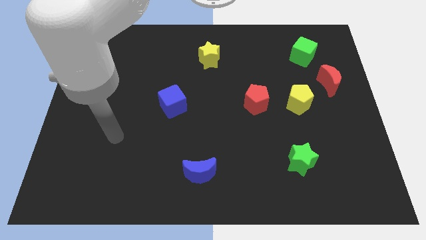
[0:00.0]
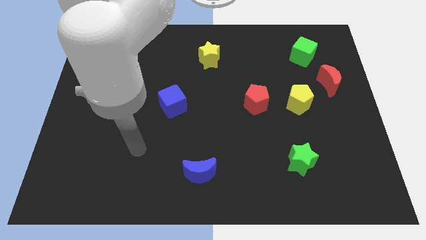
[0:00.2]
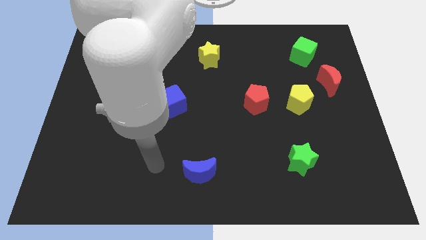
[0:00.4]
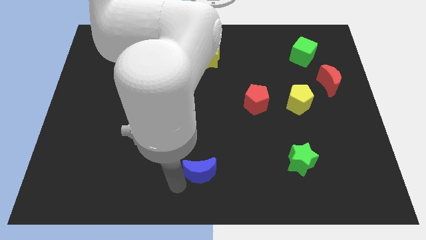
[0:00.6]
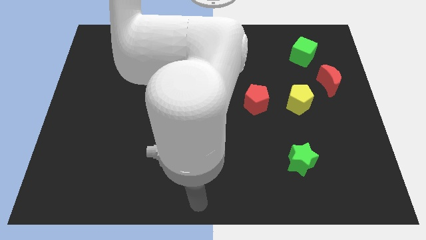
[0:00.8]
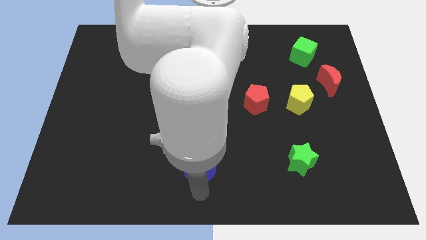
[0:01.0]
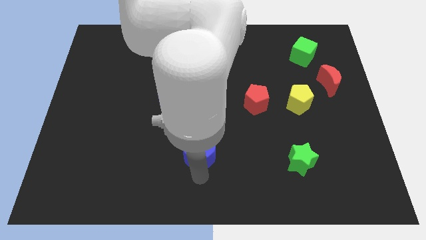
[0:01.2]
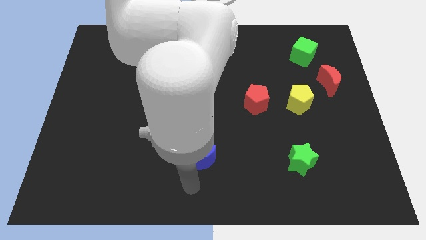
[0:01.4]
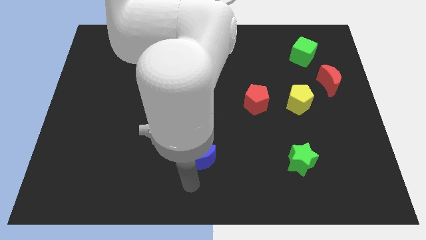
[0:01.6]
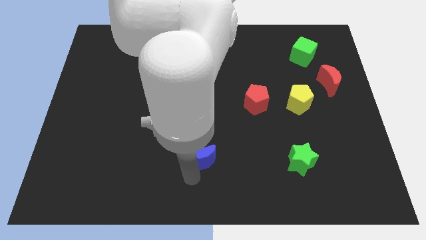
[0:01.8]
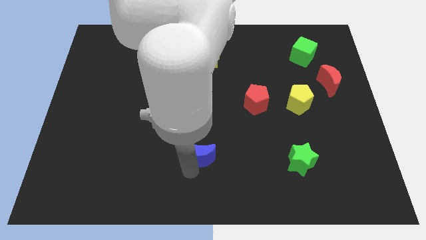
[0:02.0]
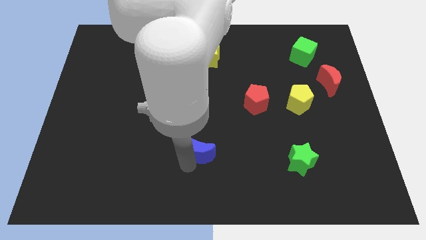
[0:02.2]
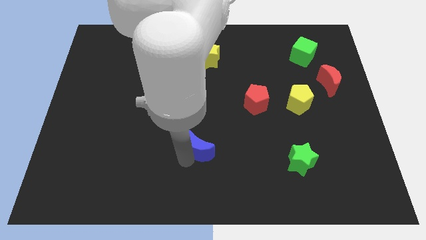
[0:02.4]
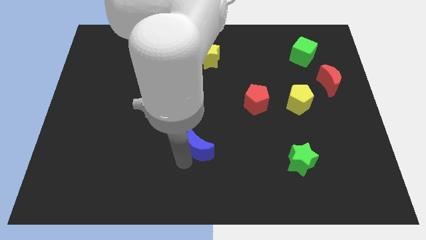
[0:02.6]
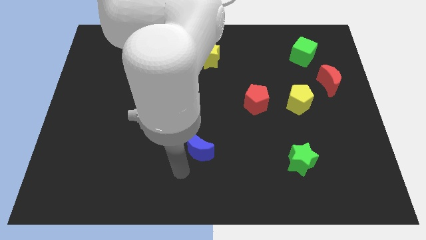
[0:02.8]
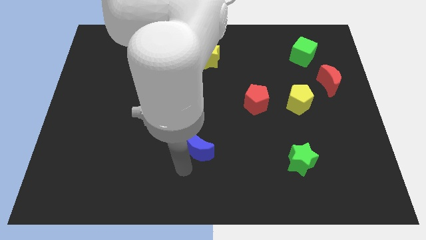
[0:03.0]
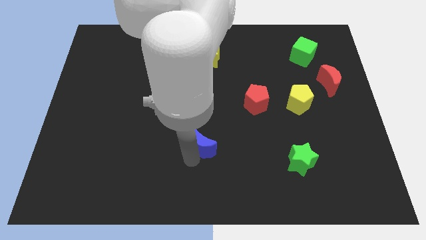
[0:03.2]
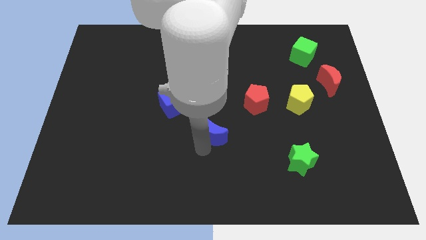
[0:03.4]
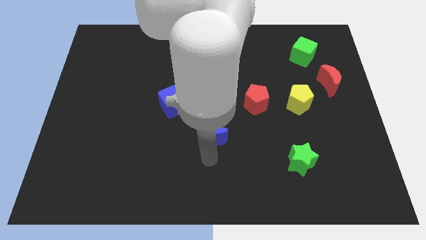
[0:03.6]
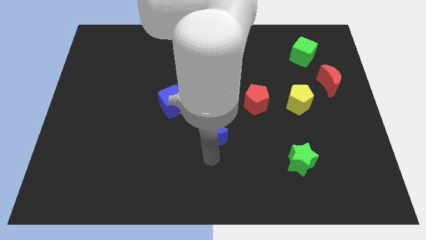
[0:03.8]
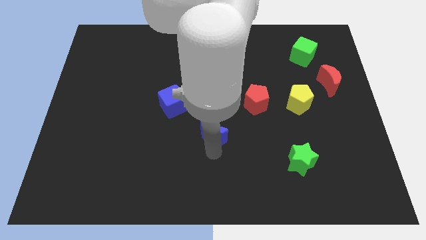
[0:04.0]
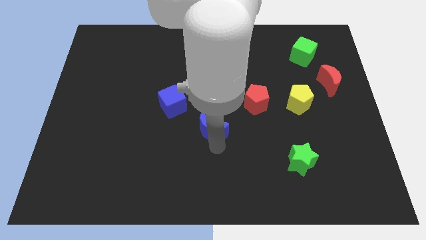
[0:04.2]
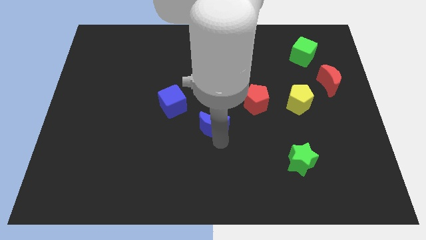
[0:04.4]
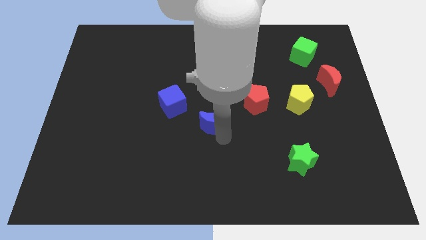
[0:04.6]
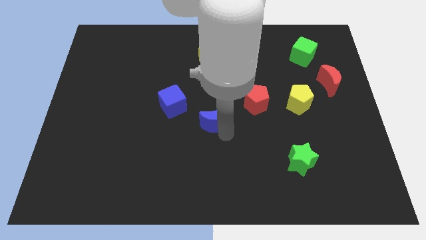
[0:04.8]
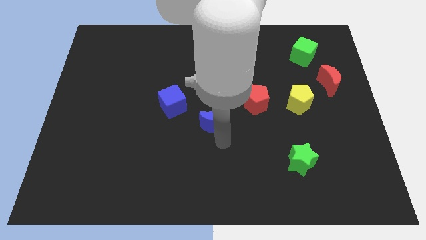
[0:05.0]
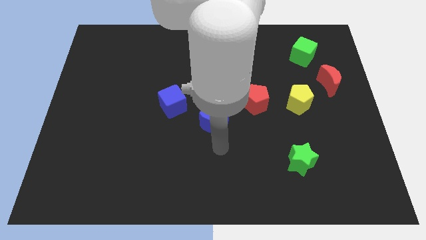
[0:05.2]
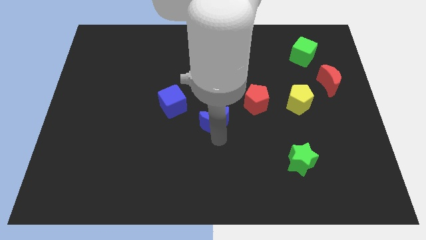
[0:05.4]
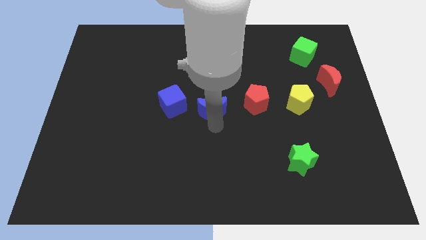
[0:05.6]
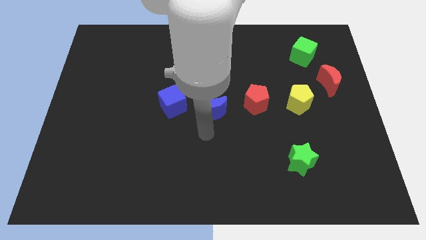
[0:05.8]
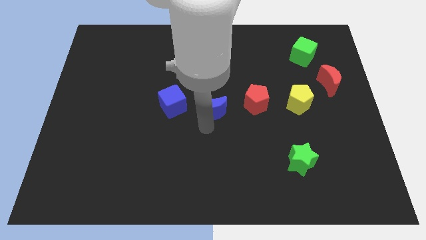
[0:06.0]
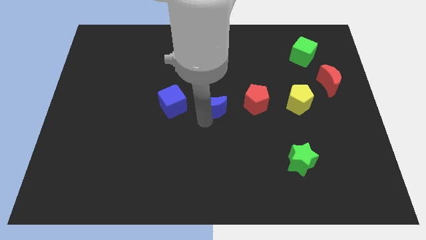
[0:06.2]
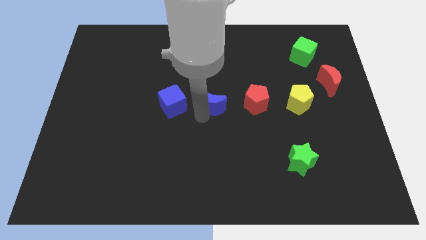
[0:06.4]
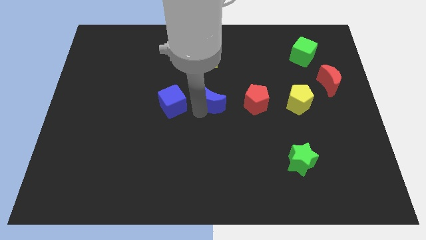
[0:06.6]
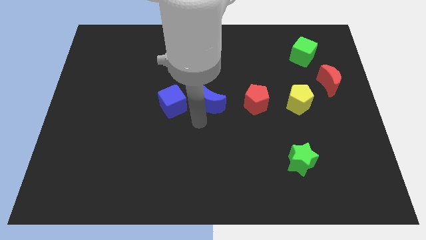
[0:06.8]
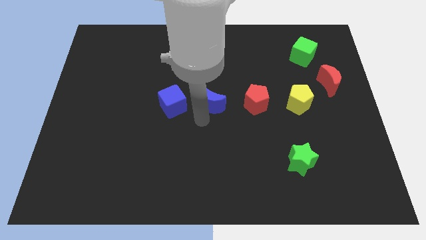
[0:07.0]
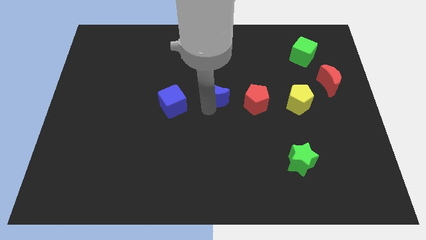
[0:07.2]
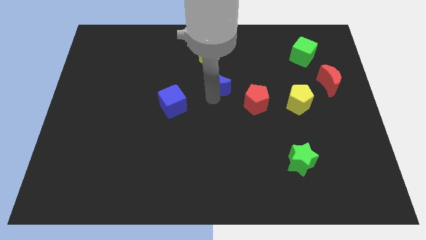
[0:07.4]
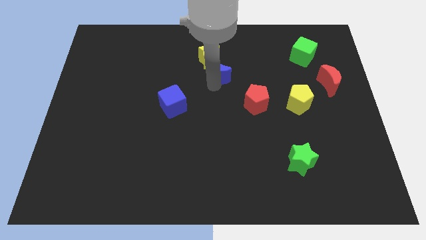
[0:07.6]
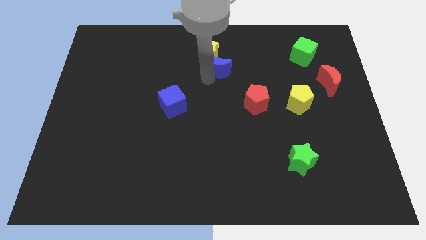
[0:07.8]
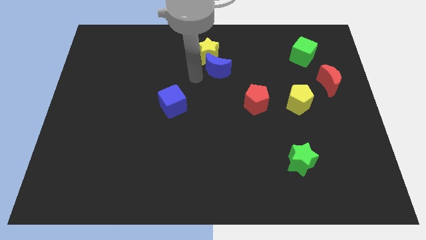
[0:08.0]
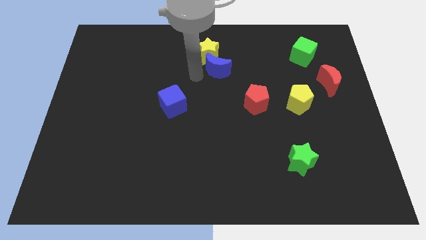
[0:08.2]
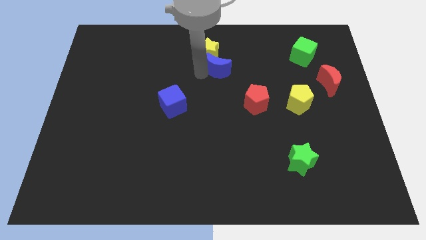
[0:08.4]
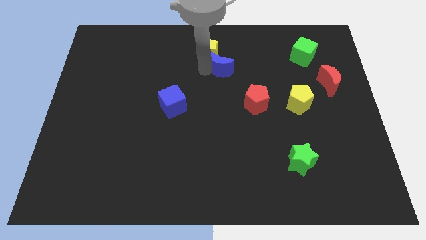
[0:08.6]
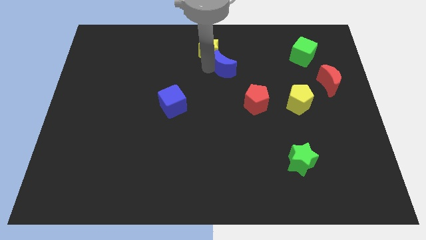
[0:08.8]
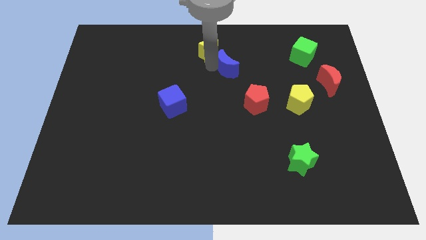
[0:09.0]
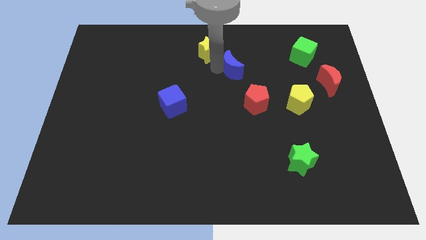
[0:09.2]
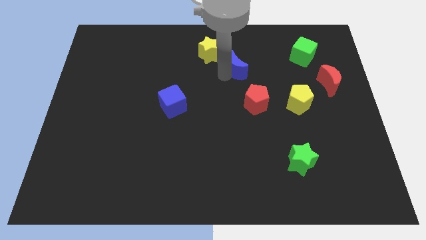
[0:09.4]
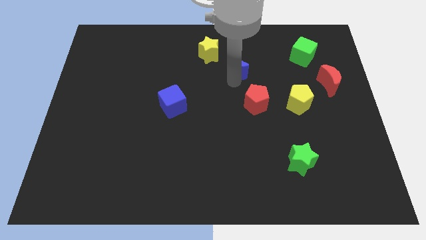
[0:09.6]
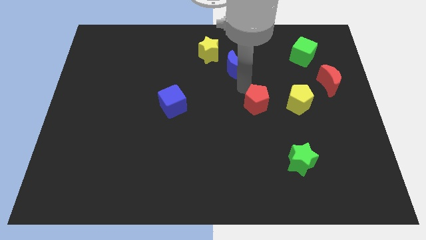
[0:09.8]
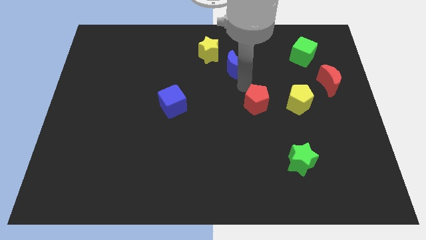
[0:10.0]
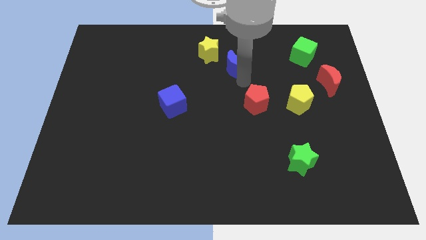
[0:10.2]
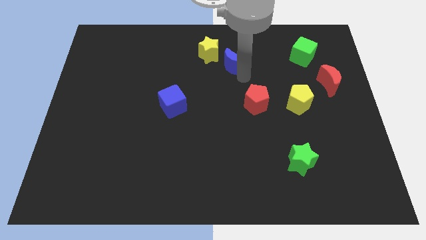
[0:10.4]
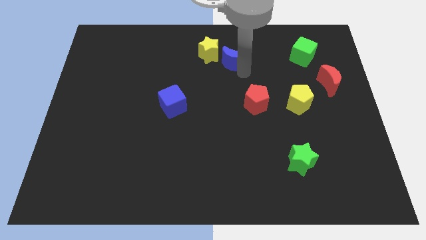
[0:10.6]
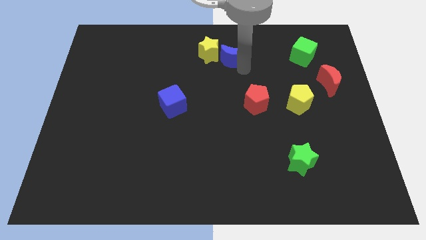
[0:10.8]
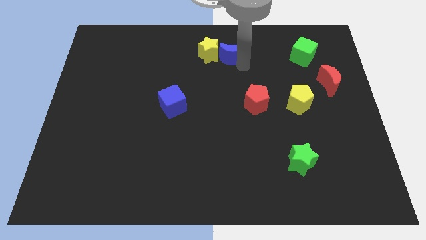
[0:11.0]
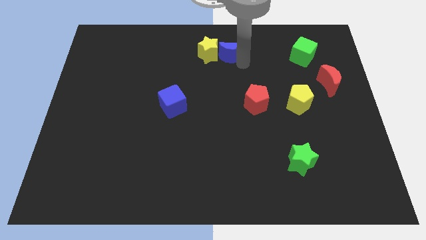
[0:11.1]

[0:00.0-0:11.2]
put the blue moon to the towards your base
